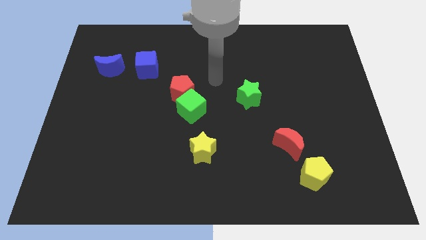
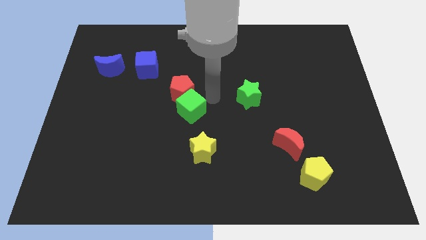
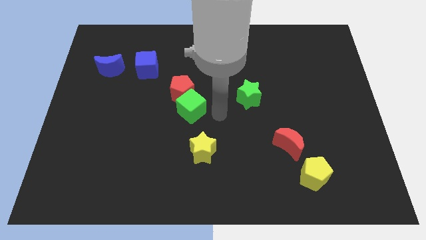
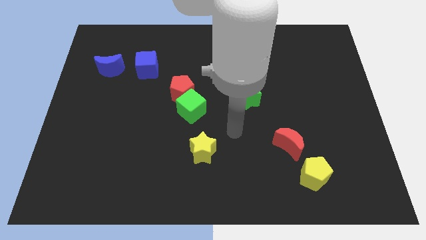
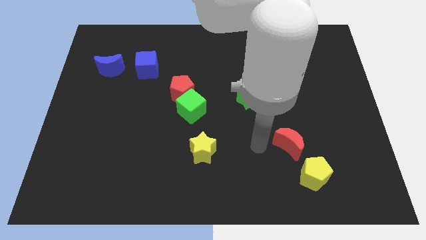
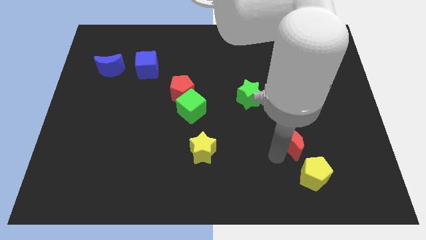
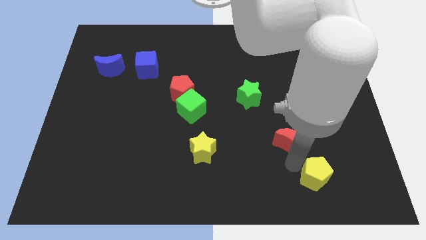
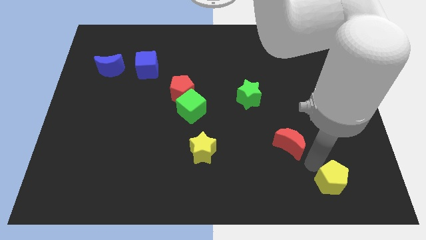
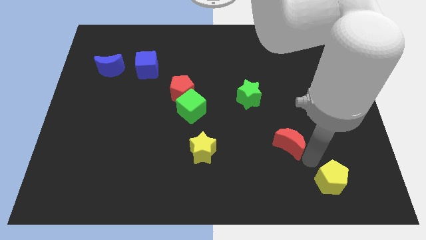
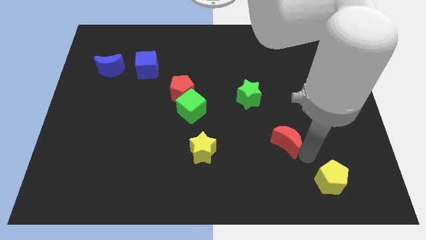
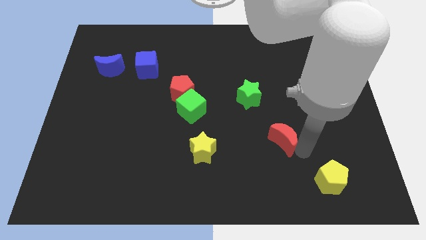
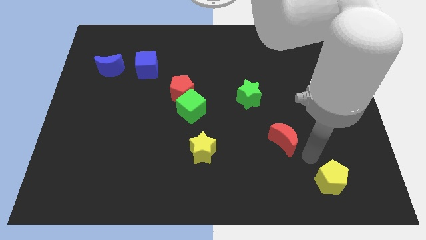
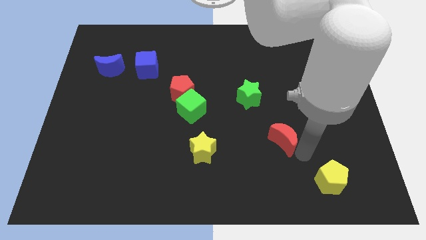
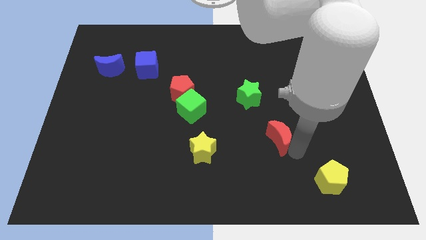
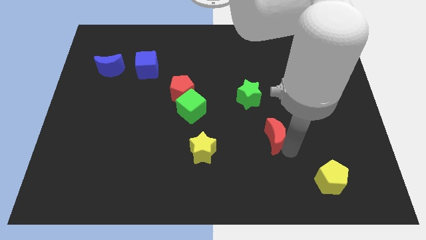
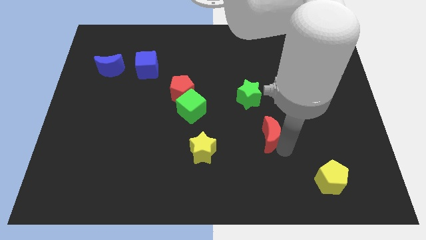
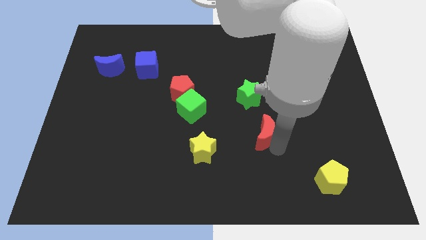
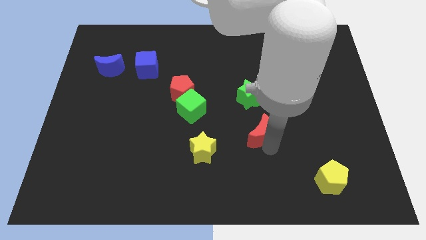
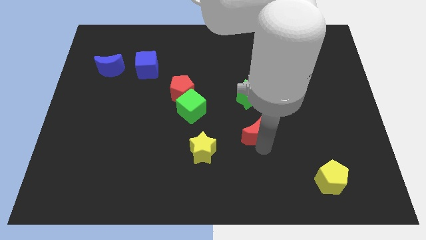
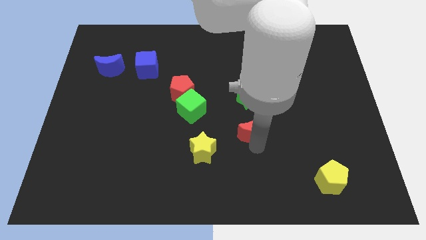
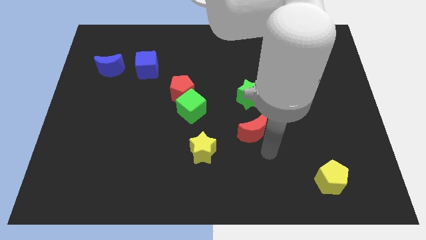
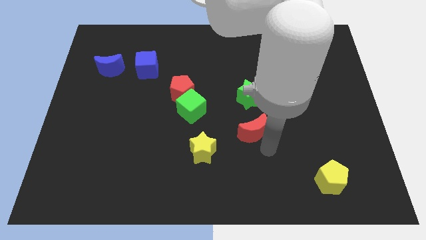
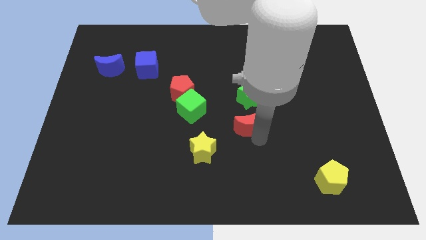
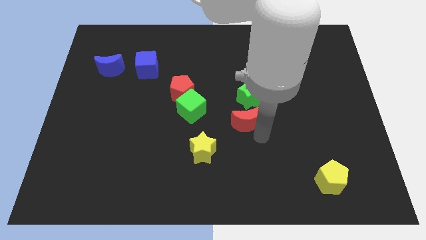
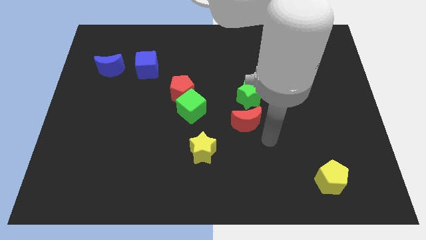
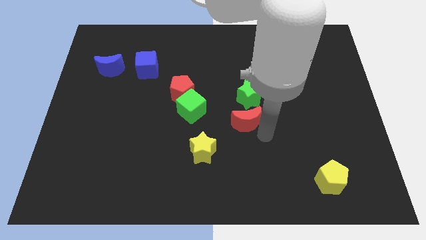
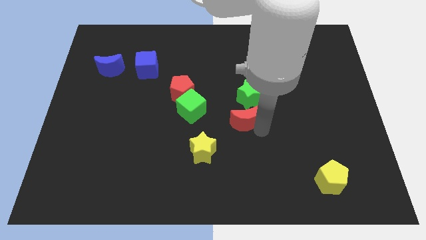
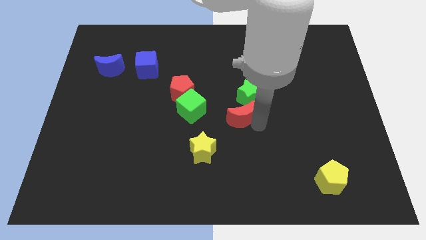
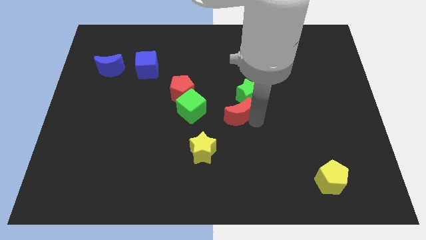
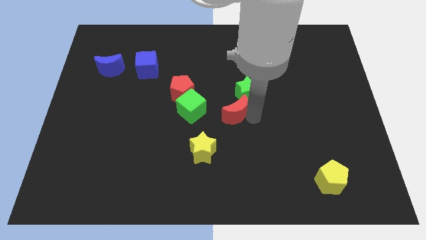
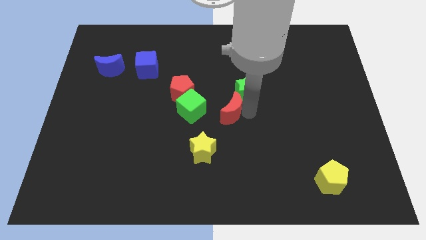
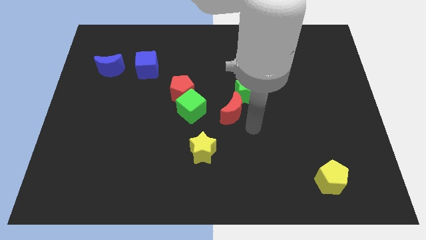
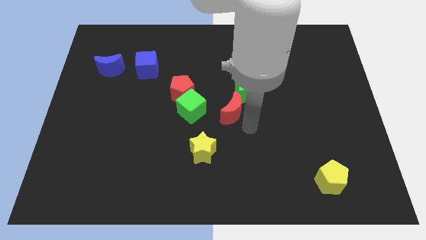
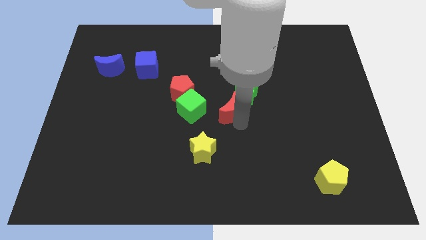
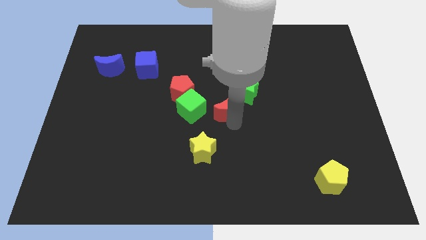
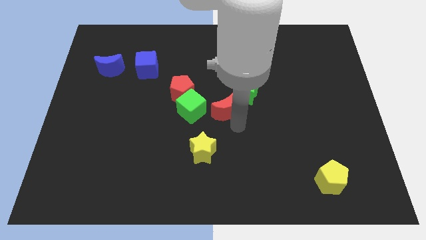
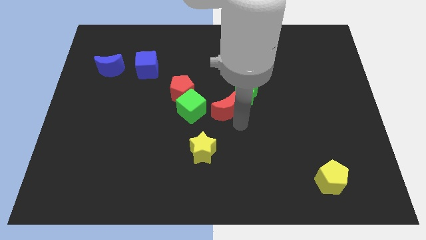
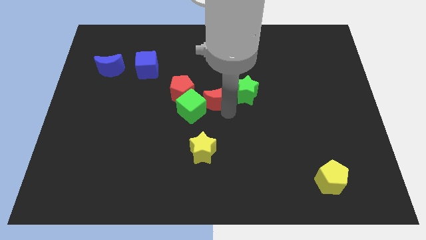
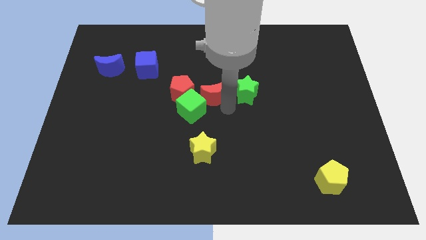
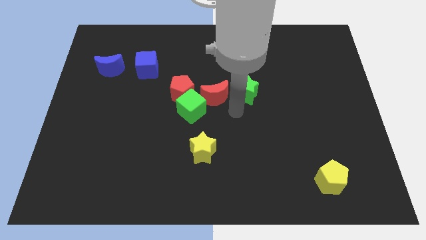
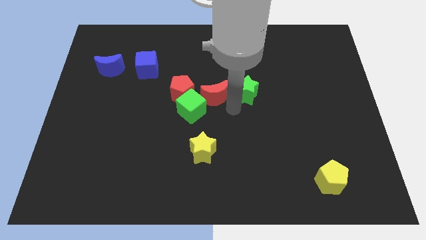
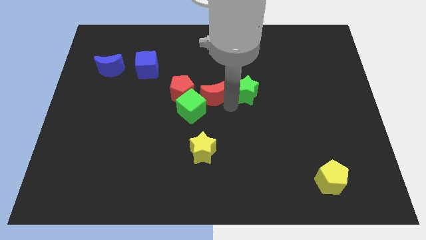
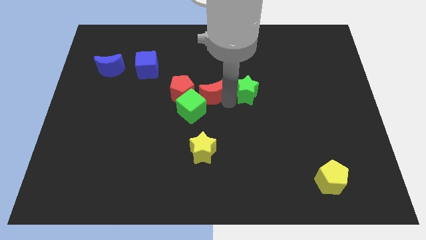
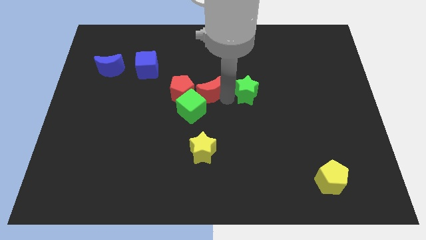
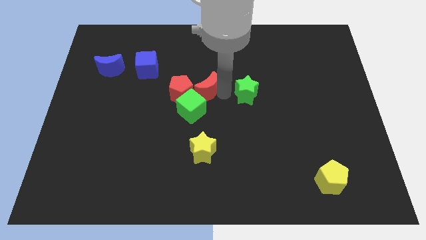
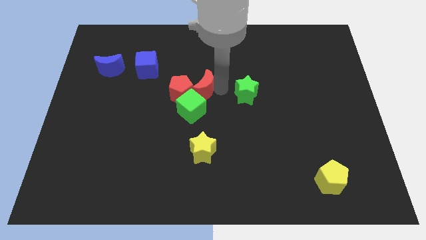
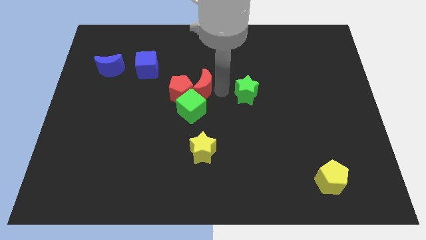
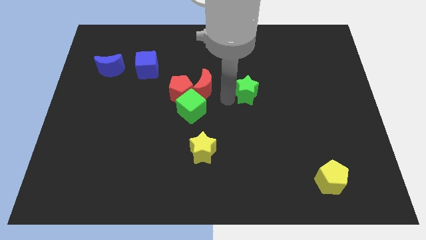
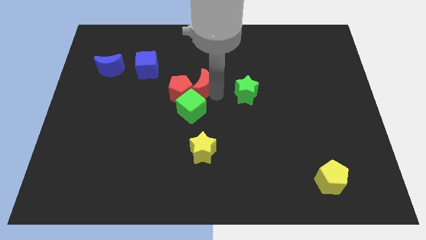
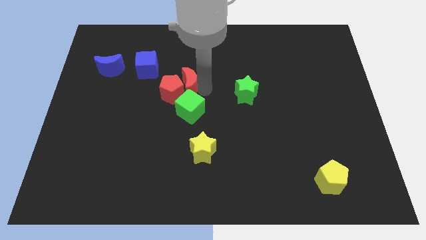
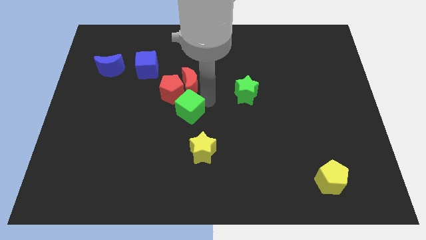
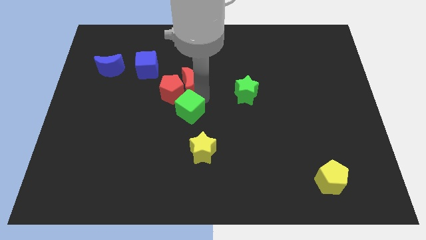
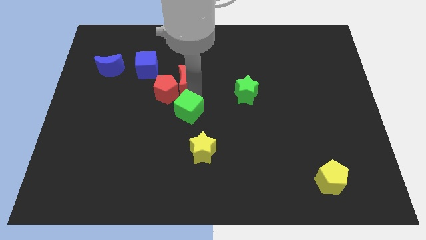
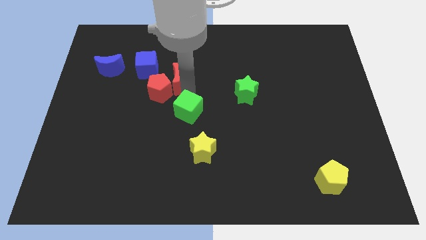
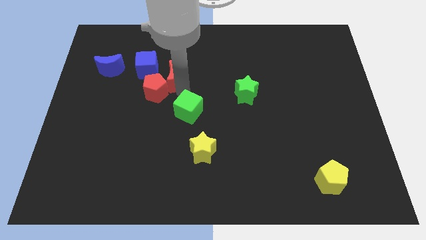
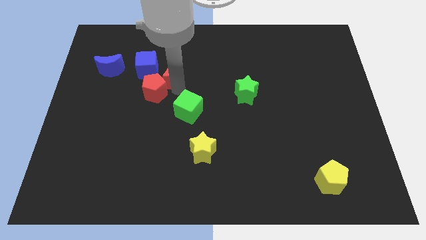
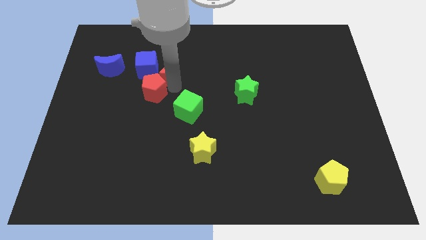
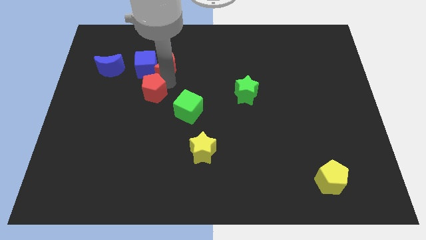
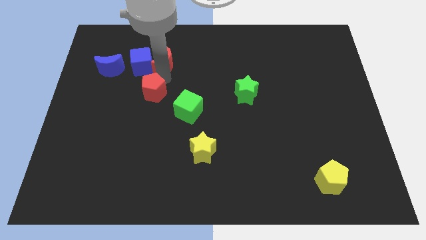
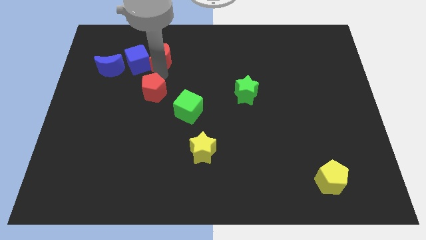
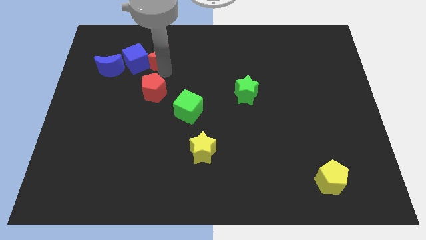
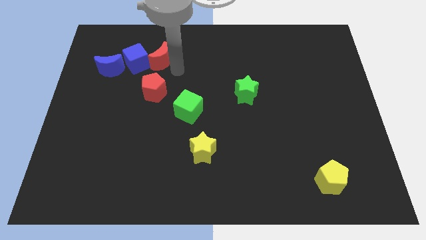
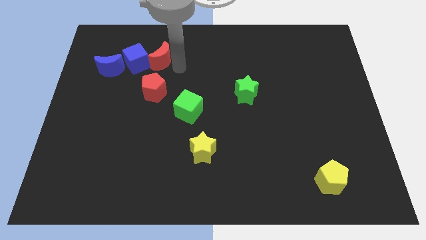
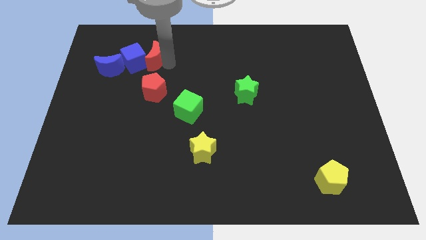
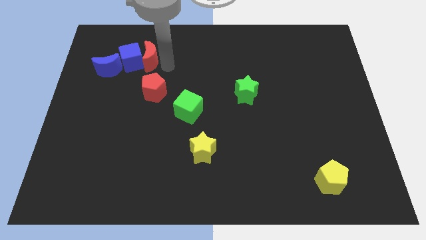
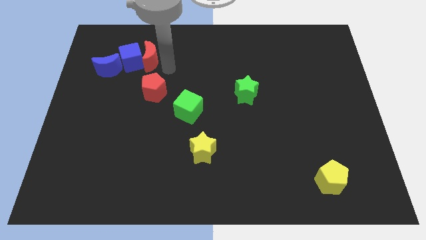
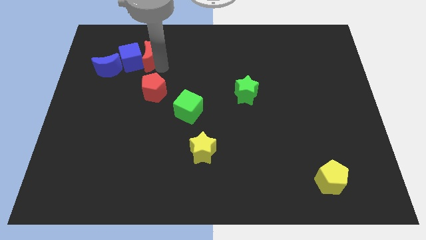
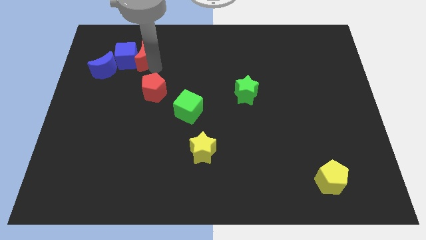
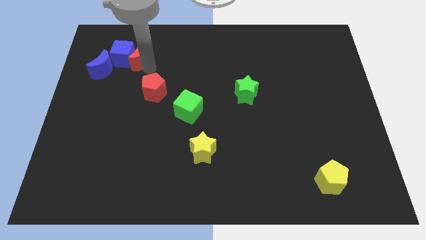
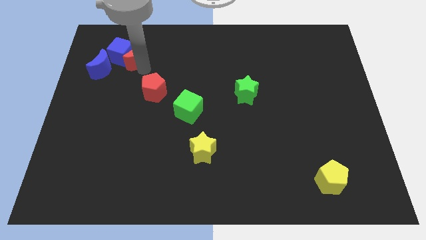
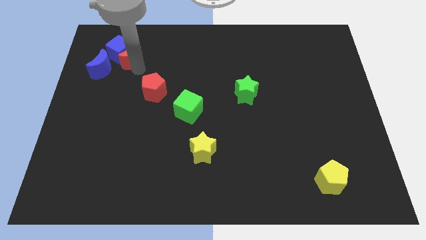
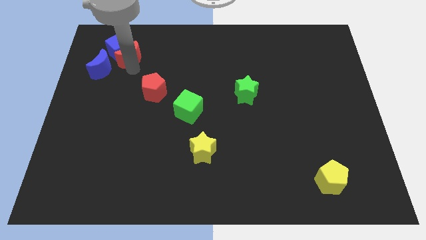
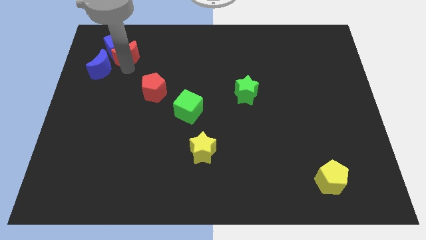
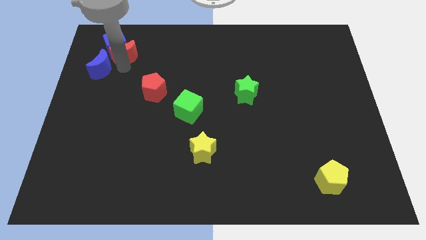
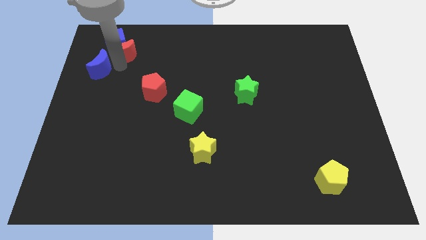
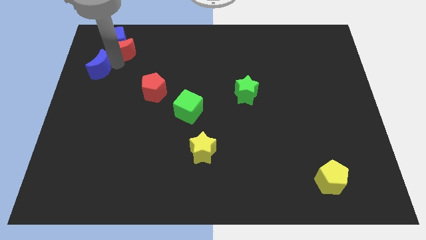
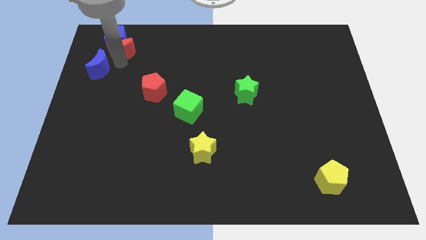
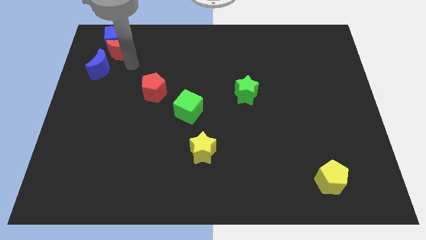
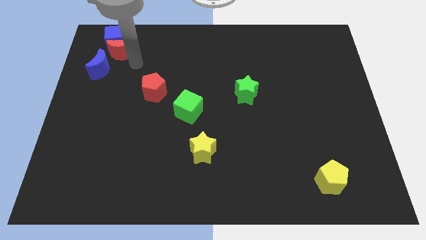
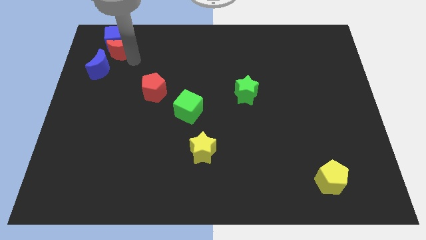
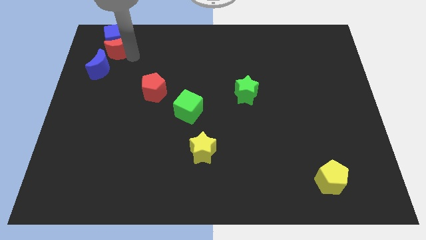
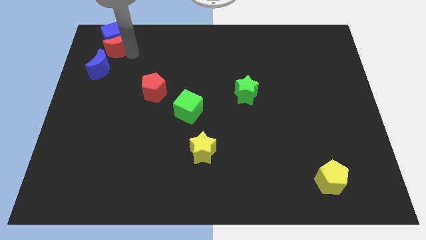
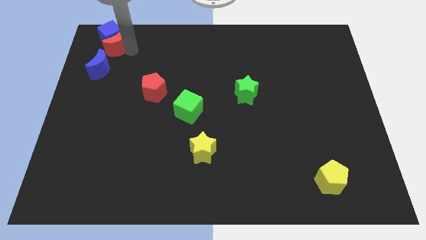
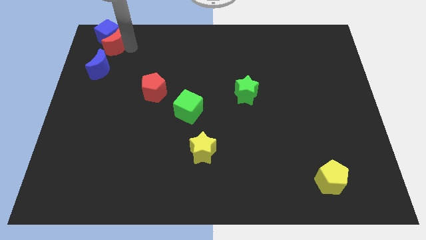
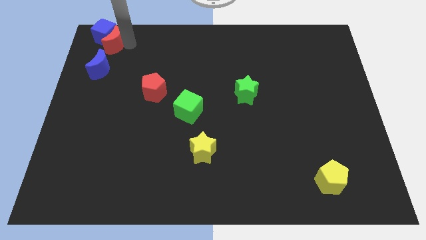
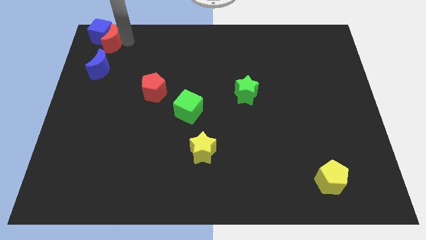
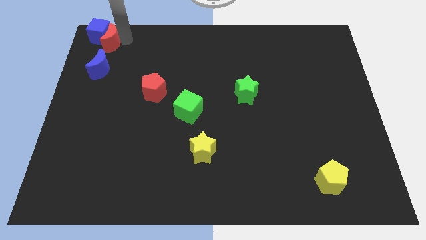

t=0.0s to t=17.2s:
slide the red moon to the top left corner
